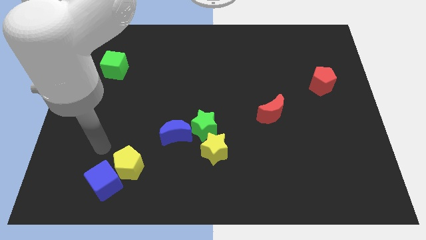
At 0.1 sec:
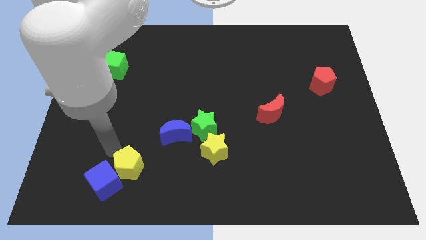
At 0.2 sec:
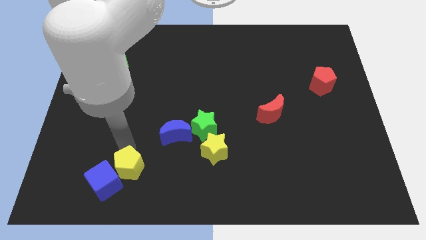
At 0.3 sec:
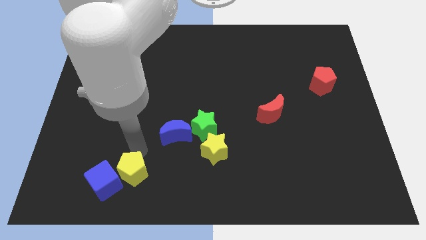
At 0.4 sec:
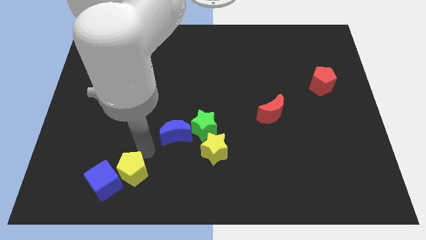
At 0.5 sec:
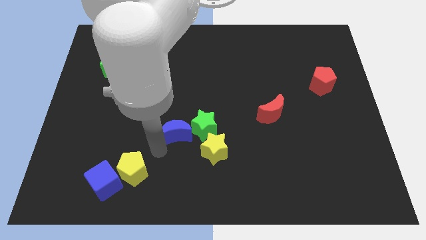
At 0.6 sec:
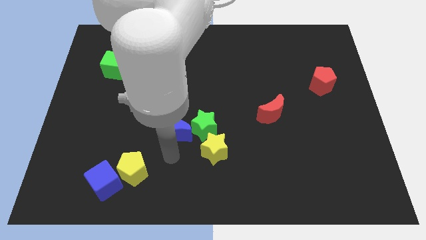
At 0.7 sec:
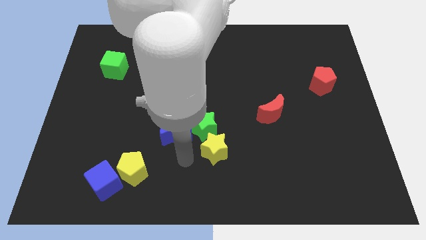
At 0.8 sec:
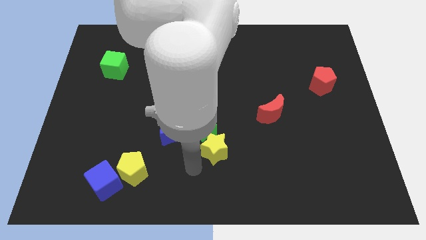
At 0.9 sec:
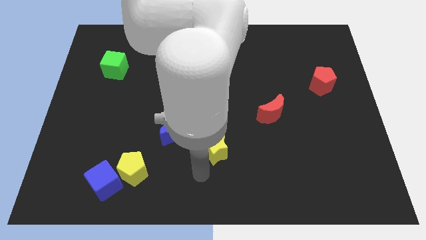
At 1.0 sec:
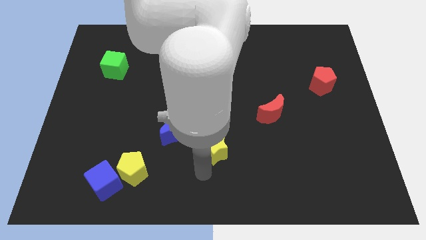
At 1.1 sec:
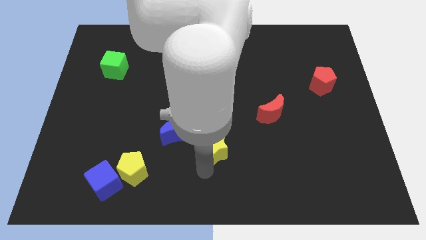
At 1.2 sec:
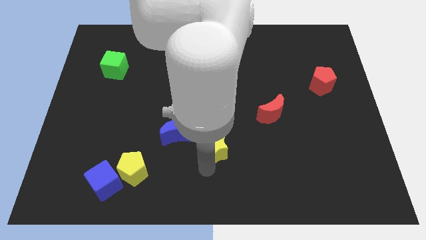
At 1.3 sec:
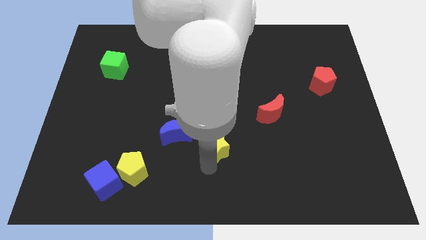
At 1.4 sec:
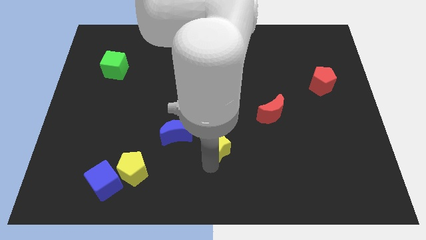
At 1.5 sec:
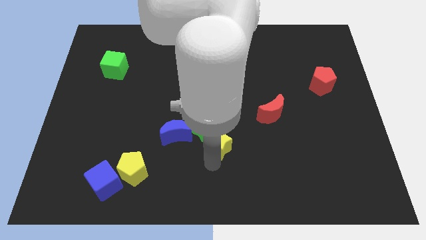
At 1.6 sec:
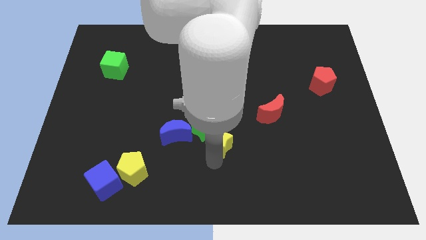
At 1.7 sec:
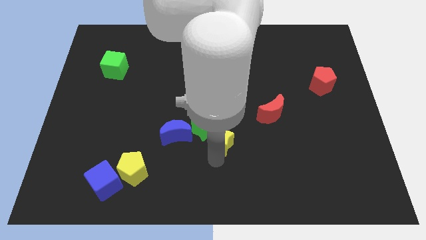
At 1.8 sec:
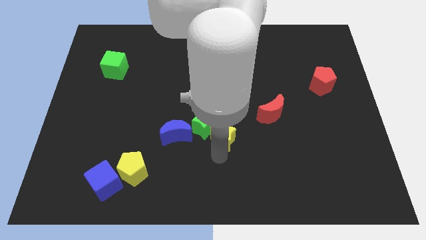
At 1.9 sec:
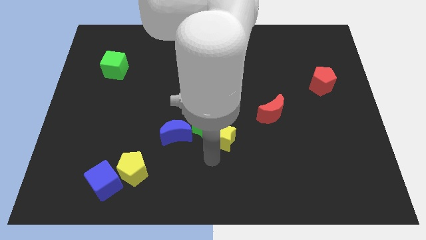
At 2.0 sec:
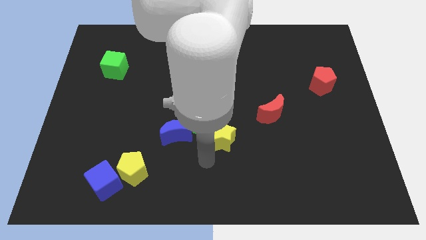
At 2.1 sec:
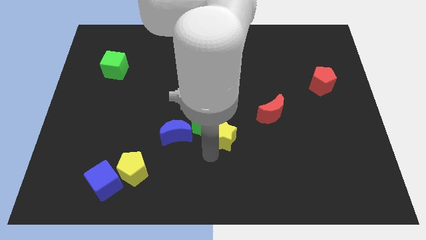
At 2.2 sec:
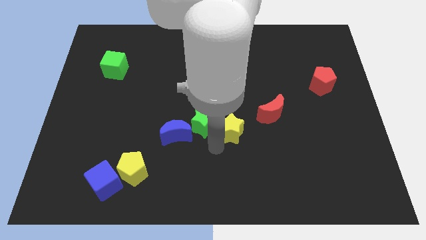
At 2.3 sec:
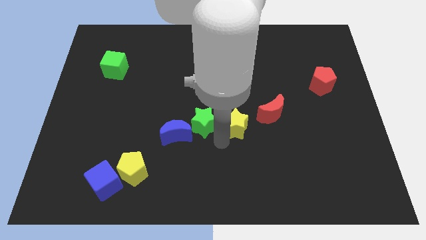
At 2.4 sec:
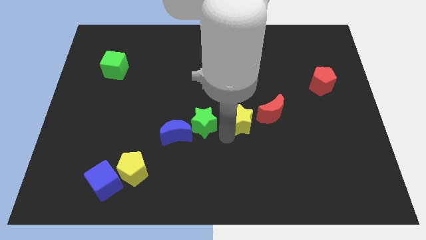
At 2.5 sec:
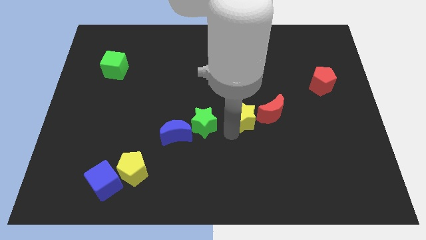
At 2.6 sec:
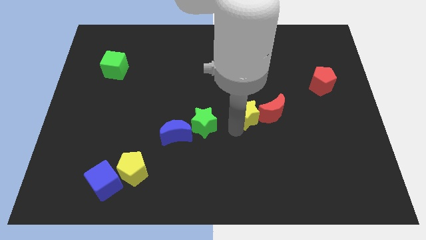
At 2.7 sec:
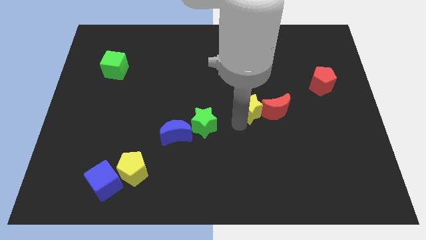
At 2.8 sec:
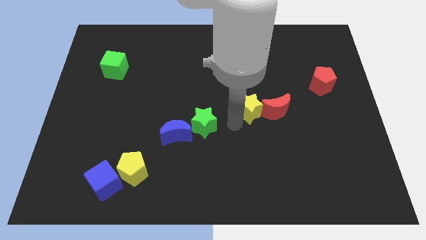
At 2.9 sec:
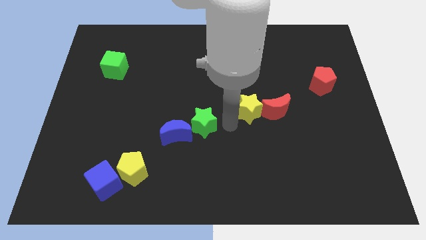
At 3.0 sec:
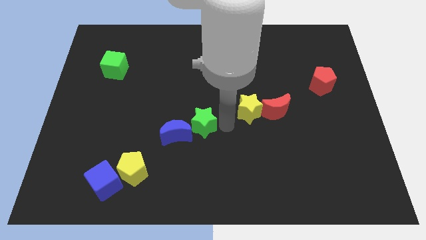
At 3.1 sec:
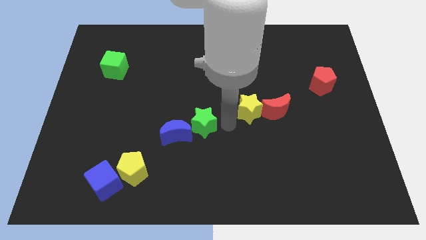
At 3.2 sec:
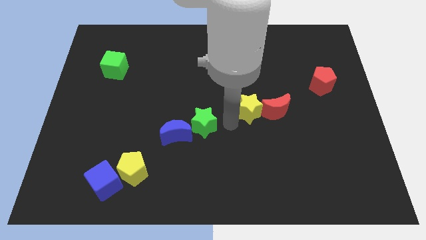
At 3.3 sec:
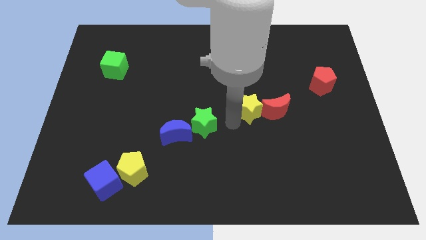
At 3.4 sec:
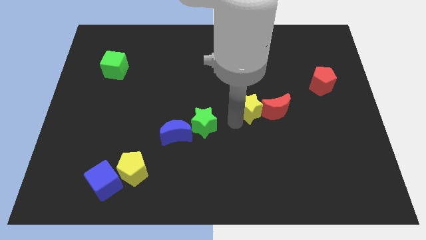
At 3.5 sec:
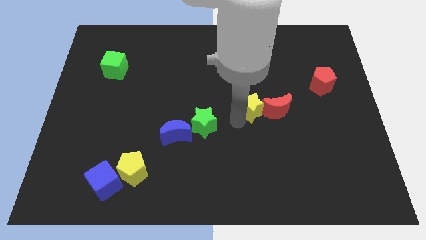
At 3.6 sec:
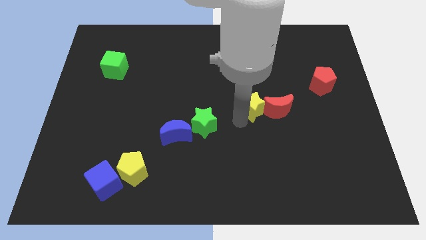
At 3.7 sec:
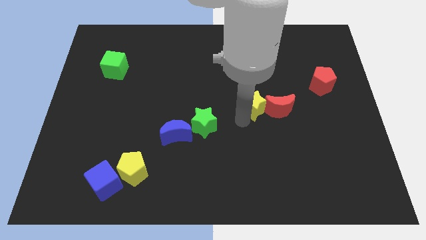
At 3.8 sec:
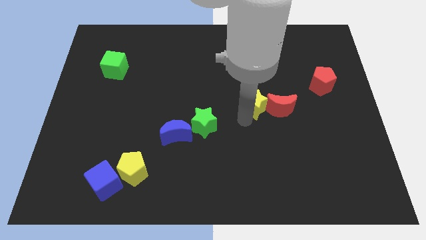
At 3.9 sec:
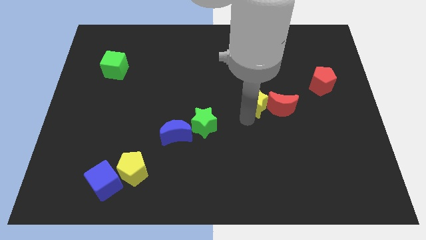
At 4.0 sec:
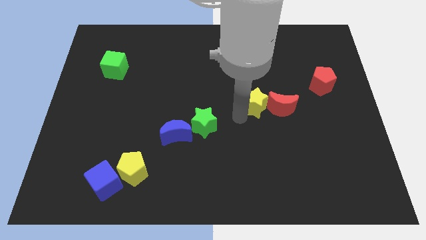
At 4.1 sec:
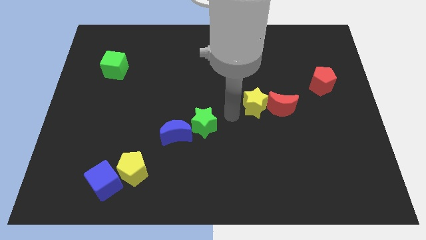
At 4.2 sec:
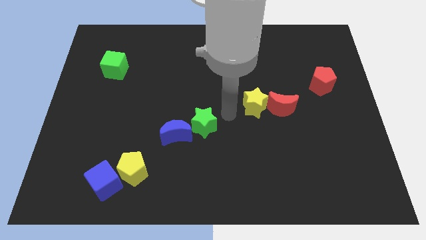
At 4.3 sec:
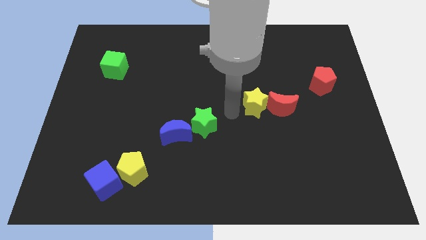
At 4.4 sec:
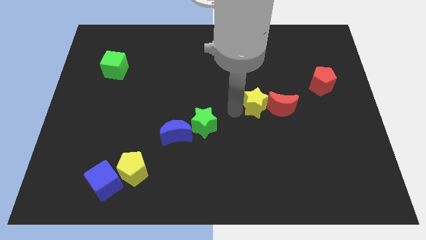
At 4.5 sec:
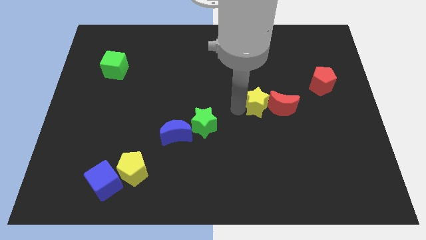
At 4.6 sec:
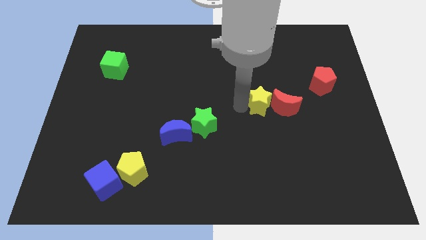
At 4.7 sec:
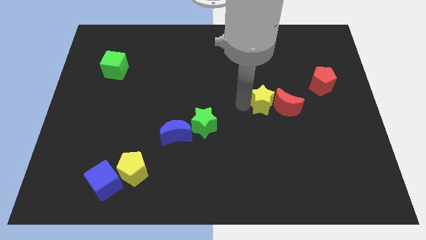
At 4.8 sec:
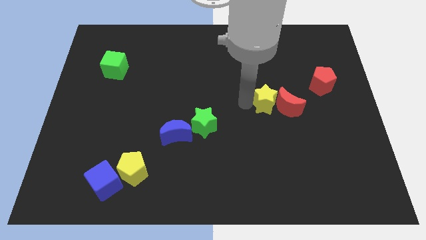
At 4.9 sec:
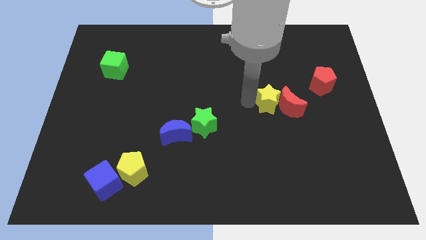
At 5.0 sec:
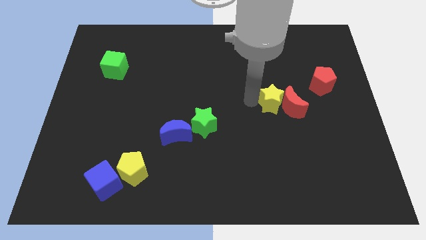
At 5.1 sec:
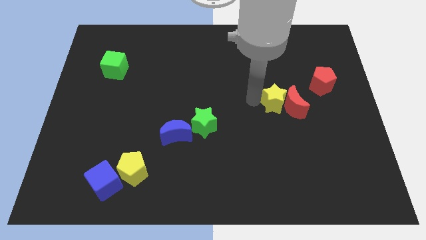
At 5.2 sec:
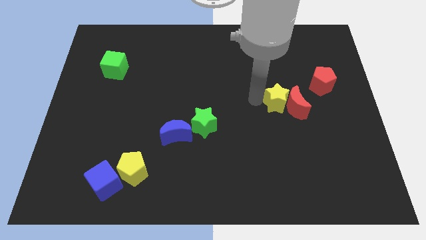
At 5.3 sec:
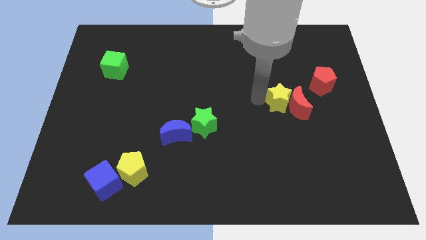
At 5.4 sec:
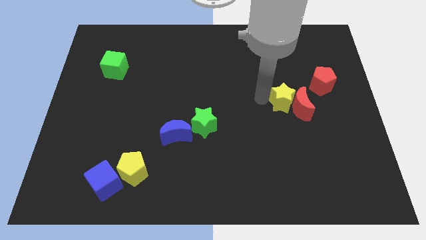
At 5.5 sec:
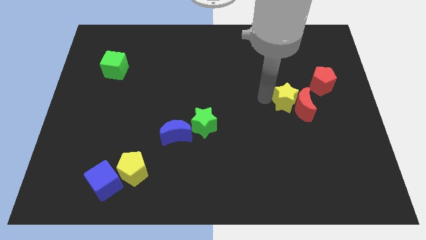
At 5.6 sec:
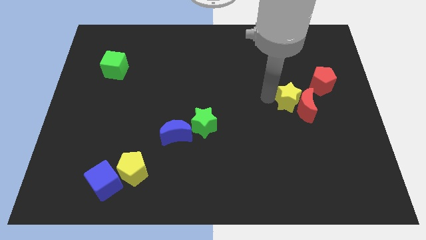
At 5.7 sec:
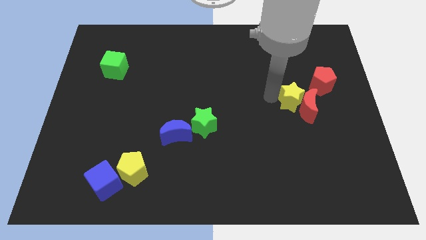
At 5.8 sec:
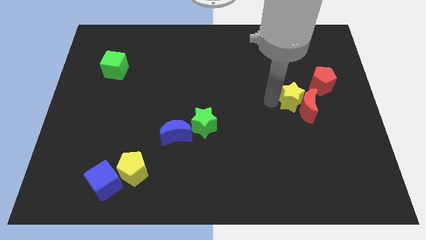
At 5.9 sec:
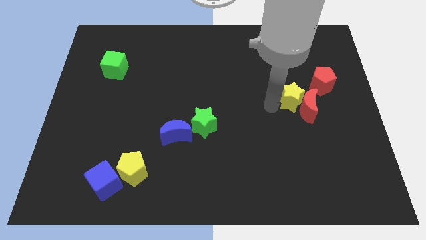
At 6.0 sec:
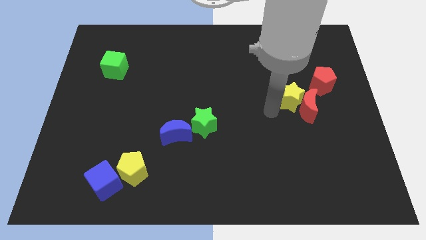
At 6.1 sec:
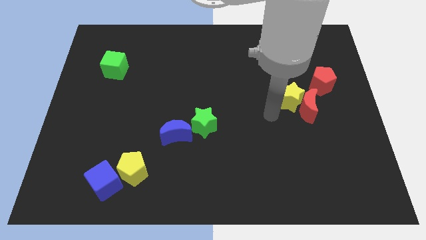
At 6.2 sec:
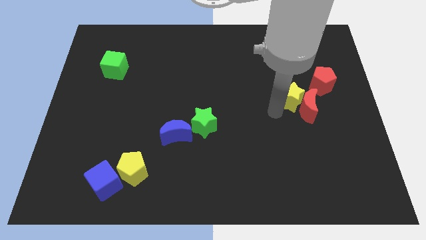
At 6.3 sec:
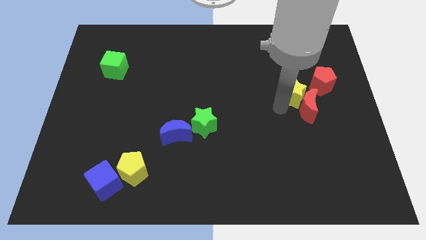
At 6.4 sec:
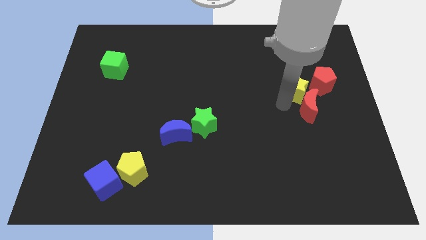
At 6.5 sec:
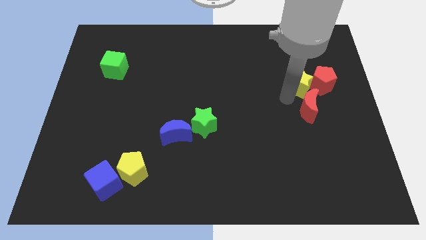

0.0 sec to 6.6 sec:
put the yellow star next to the red pentagon
